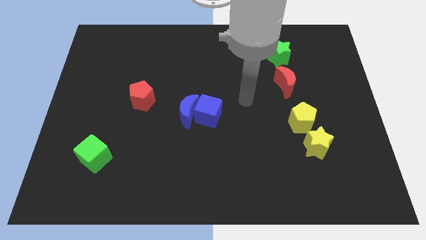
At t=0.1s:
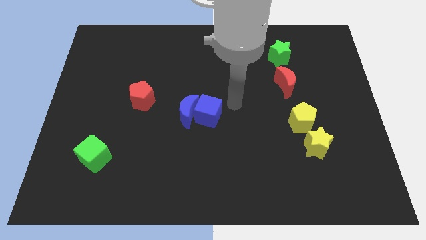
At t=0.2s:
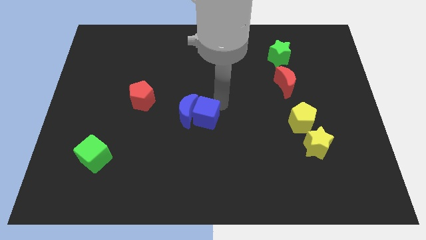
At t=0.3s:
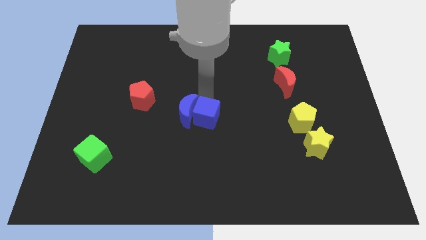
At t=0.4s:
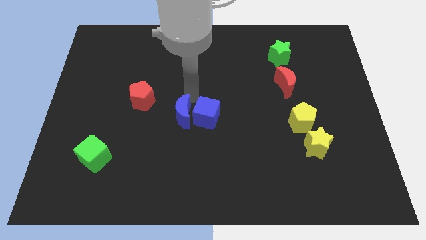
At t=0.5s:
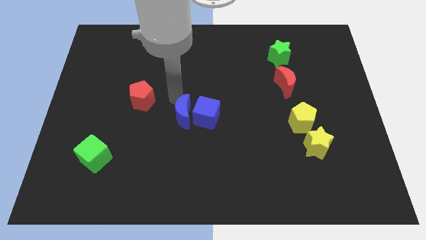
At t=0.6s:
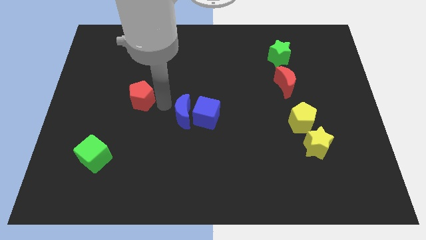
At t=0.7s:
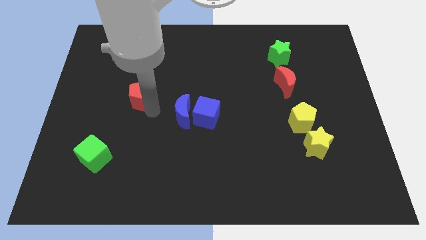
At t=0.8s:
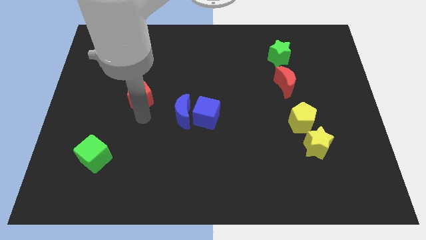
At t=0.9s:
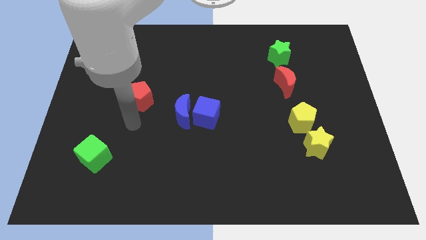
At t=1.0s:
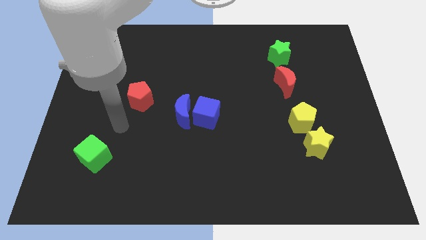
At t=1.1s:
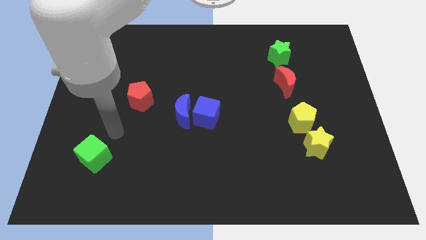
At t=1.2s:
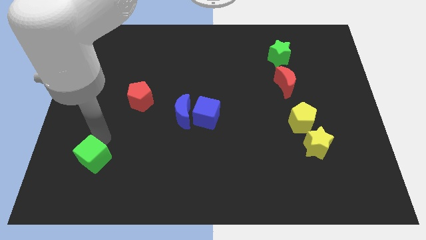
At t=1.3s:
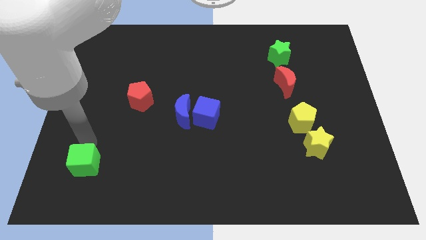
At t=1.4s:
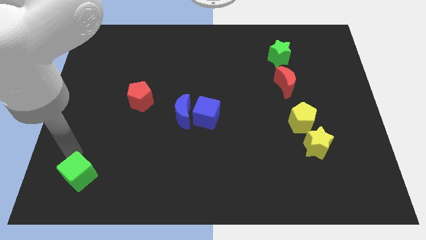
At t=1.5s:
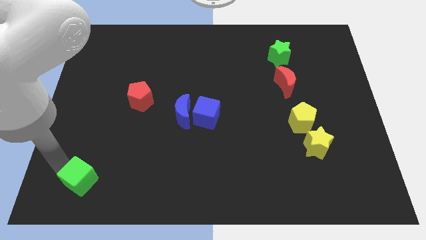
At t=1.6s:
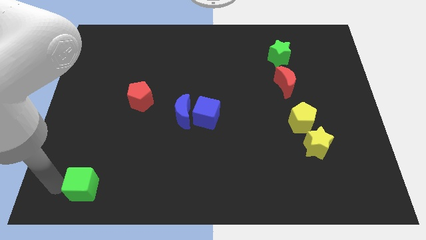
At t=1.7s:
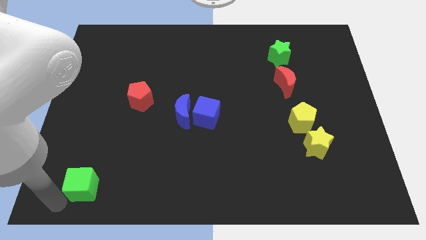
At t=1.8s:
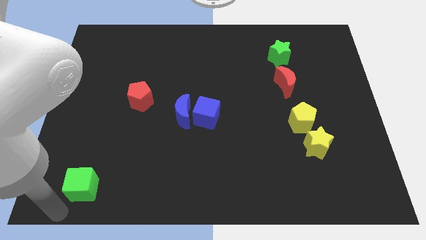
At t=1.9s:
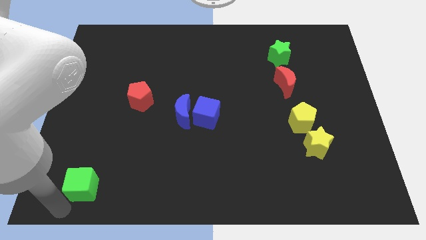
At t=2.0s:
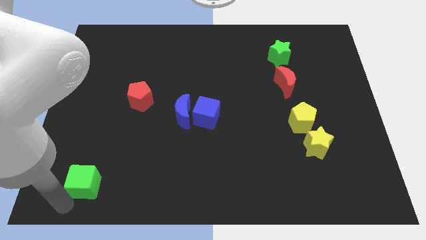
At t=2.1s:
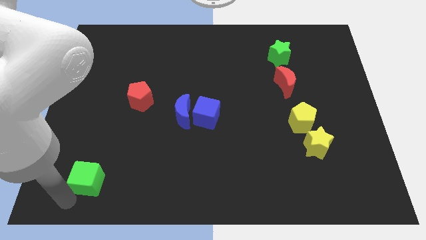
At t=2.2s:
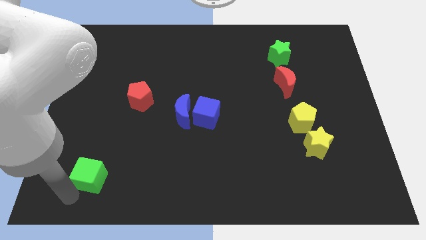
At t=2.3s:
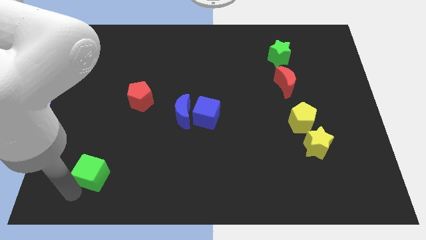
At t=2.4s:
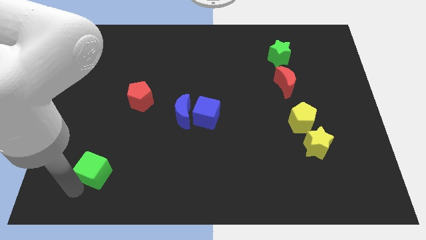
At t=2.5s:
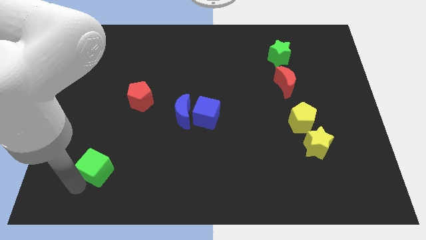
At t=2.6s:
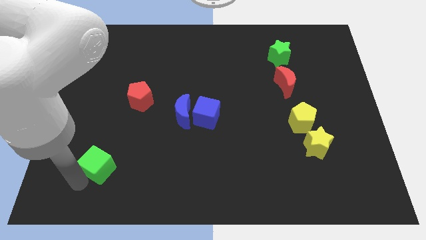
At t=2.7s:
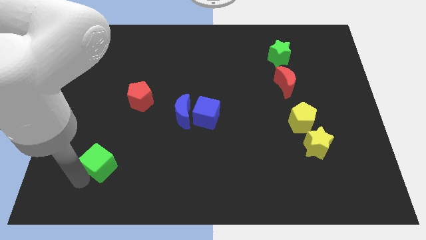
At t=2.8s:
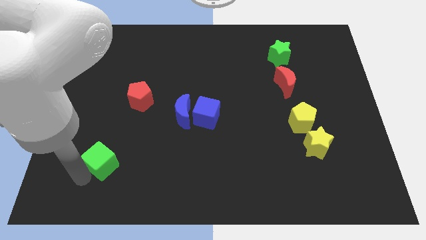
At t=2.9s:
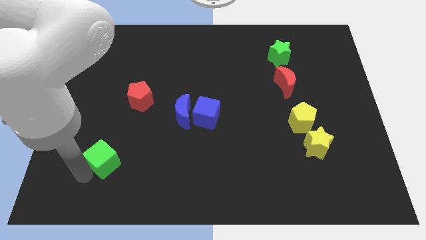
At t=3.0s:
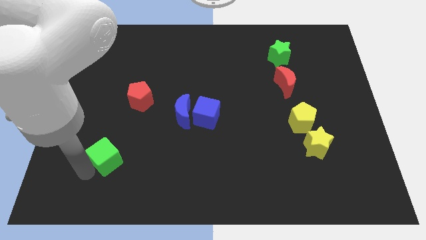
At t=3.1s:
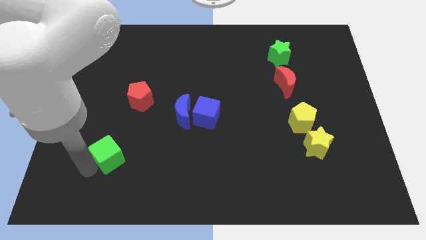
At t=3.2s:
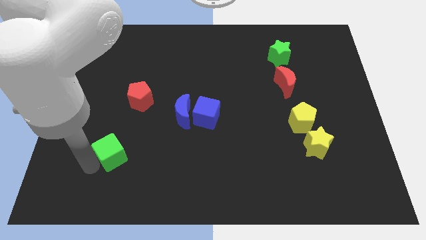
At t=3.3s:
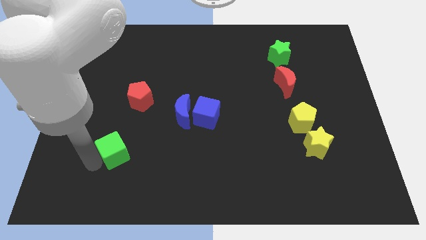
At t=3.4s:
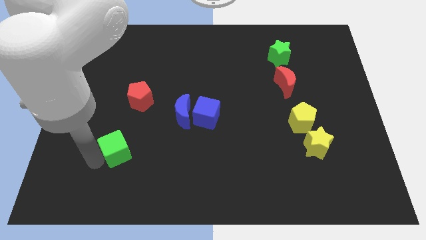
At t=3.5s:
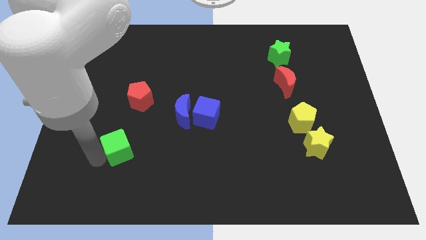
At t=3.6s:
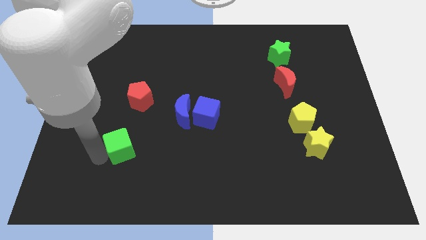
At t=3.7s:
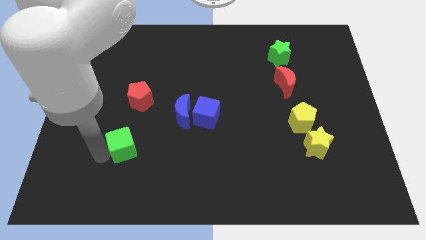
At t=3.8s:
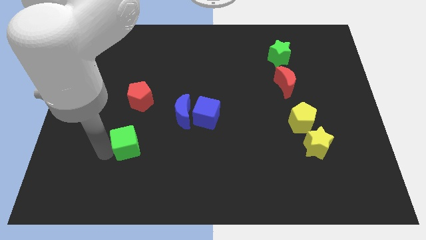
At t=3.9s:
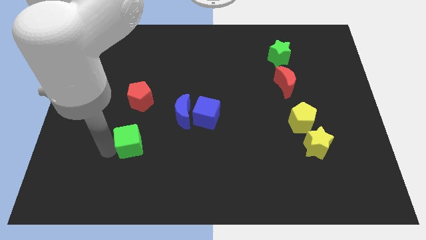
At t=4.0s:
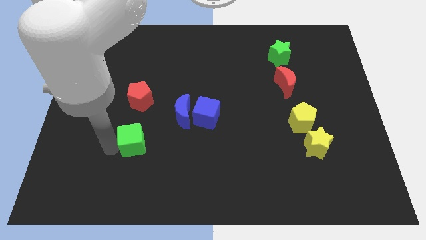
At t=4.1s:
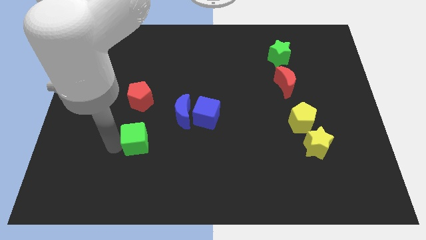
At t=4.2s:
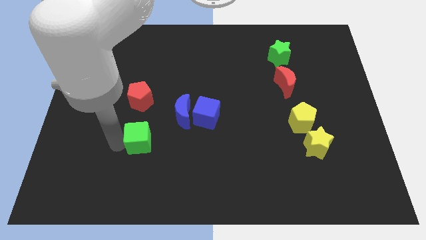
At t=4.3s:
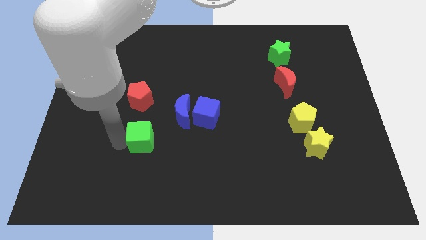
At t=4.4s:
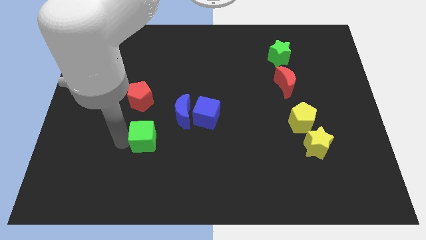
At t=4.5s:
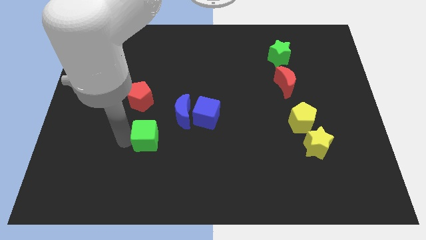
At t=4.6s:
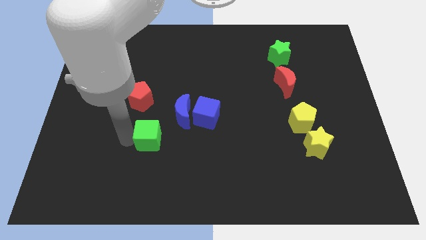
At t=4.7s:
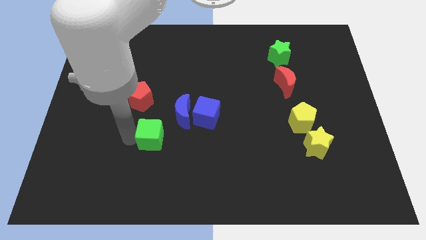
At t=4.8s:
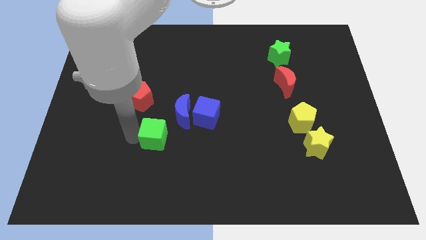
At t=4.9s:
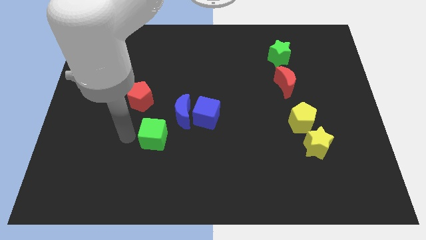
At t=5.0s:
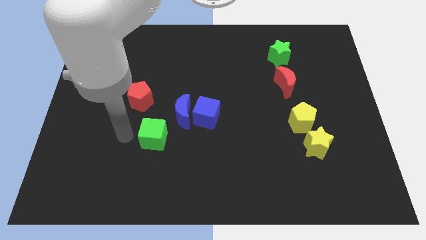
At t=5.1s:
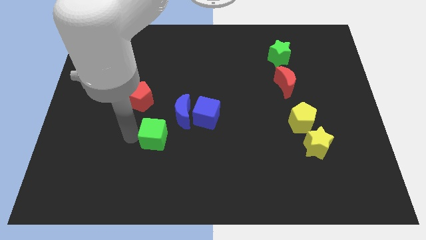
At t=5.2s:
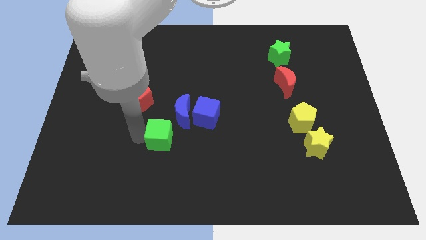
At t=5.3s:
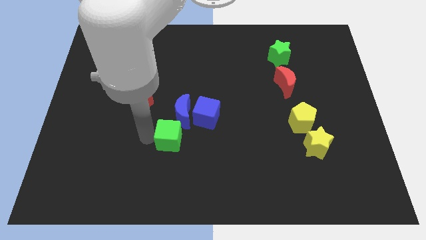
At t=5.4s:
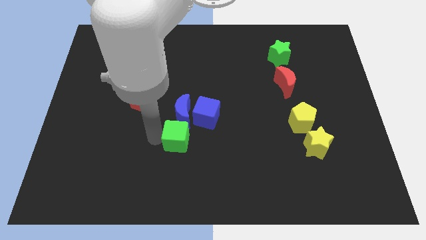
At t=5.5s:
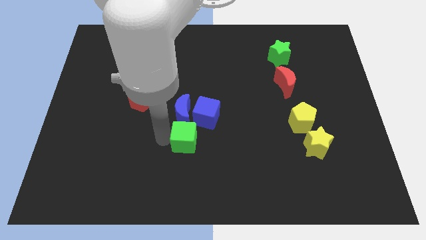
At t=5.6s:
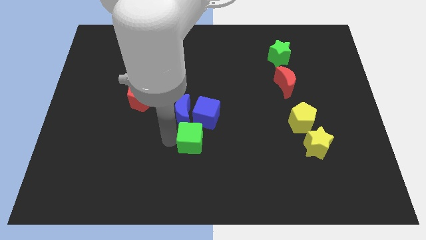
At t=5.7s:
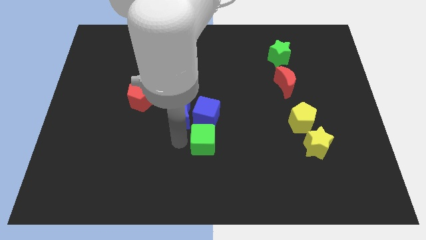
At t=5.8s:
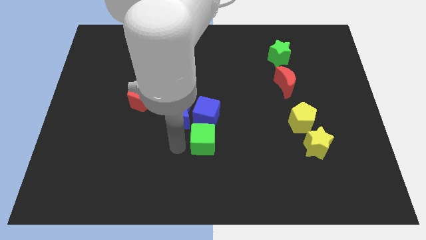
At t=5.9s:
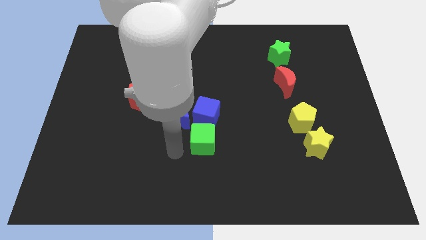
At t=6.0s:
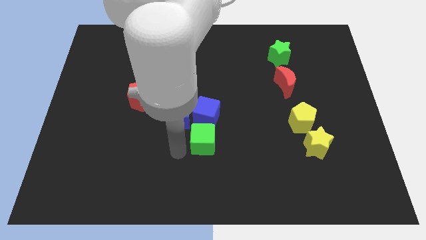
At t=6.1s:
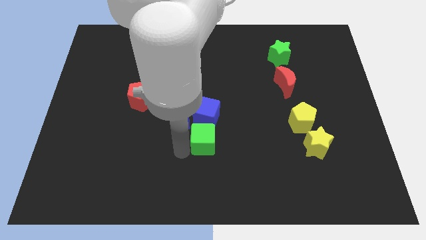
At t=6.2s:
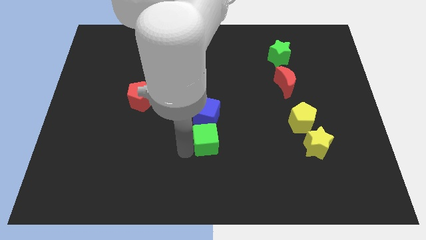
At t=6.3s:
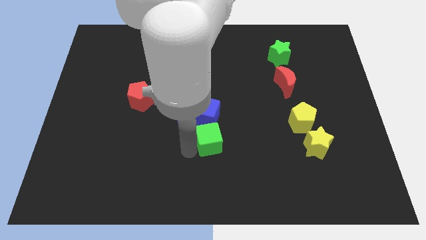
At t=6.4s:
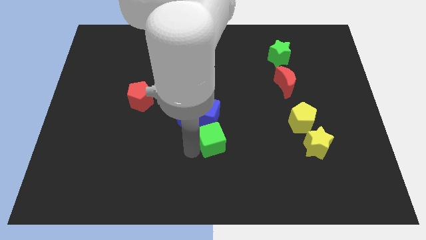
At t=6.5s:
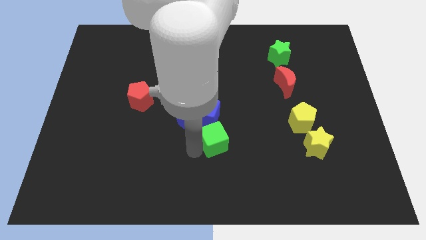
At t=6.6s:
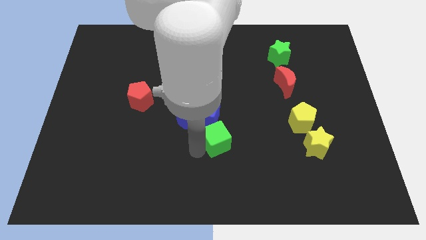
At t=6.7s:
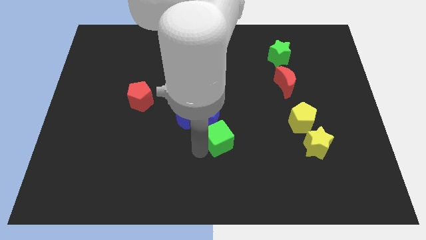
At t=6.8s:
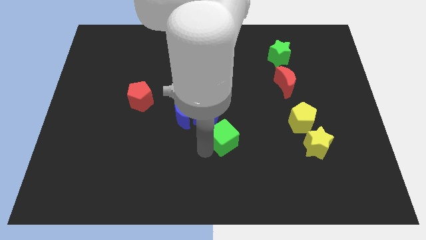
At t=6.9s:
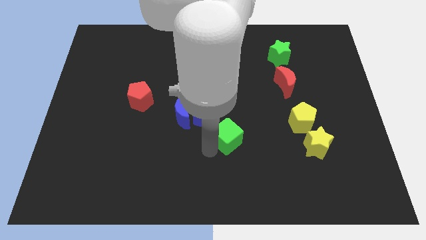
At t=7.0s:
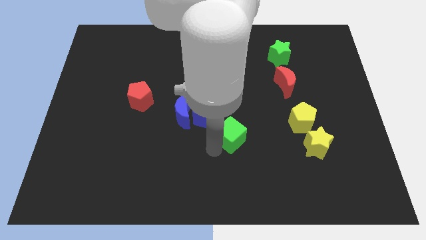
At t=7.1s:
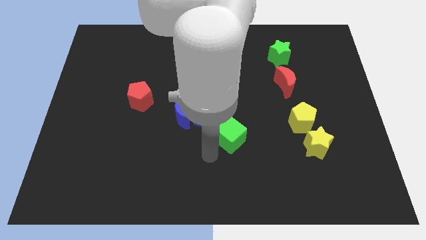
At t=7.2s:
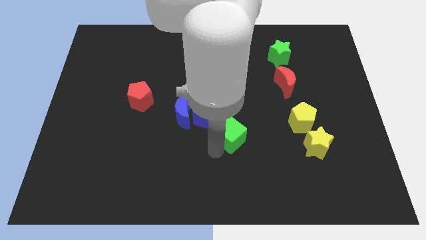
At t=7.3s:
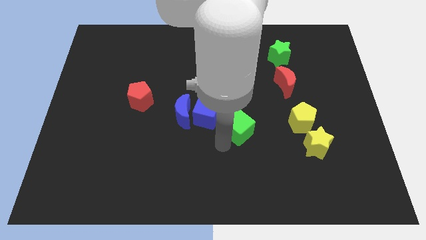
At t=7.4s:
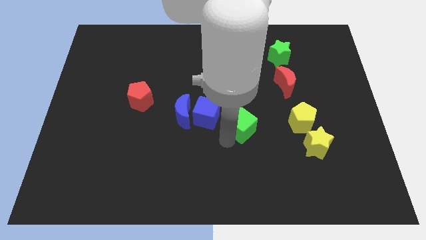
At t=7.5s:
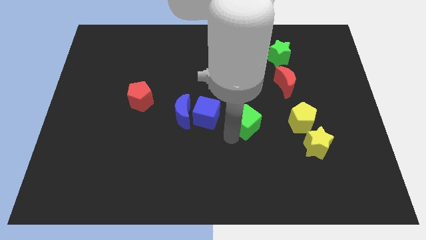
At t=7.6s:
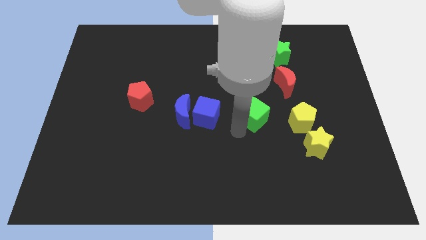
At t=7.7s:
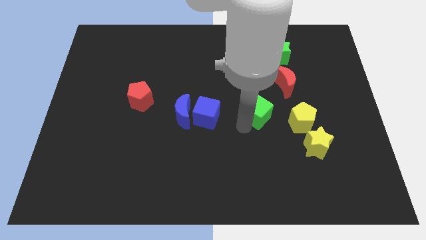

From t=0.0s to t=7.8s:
slide the green cube to the bottom left side of the red moon
